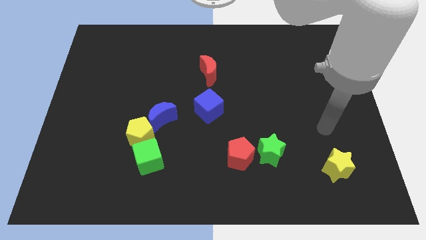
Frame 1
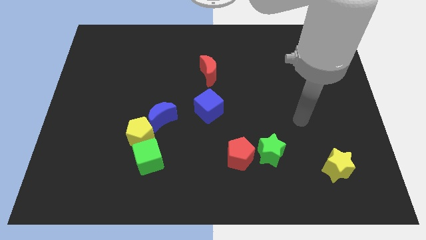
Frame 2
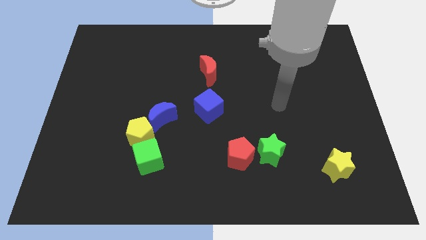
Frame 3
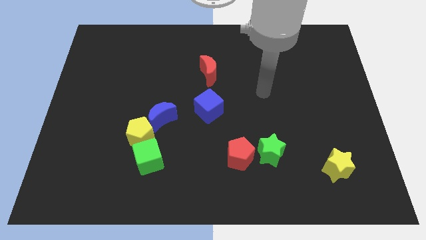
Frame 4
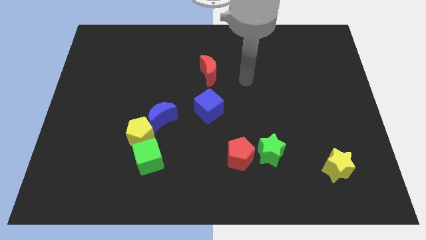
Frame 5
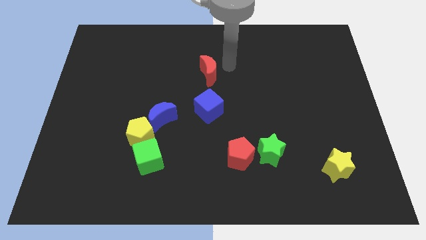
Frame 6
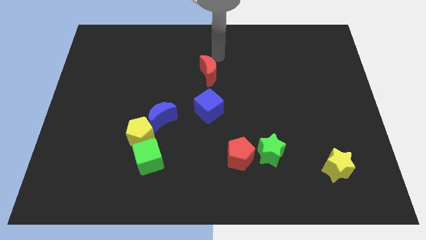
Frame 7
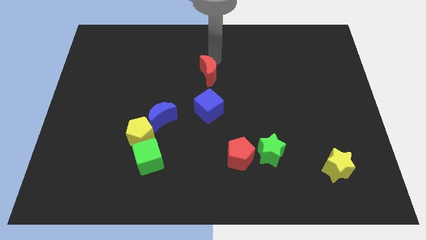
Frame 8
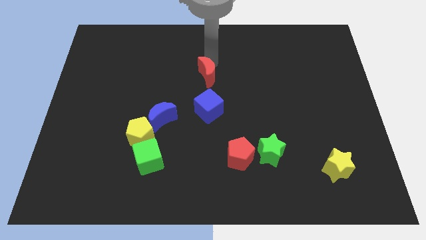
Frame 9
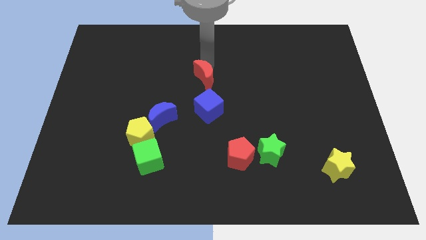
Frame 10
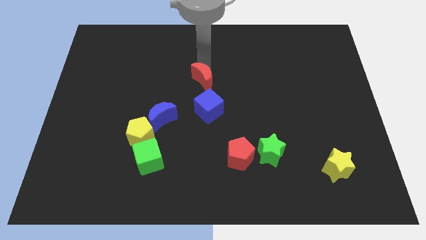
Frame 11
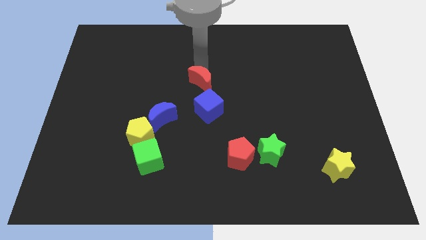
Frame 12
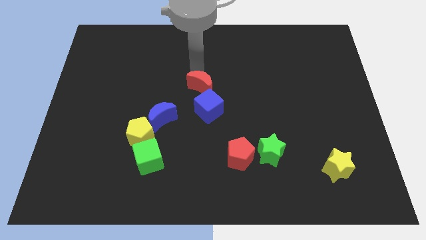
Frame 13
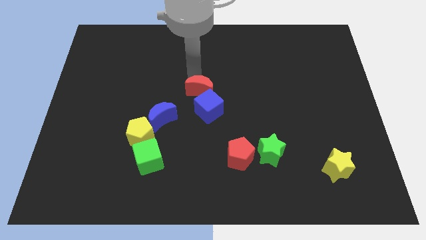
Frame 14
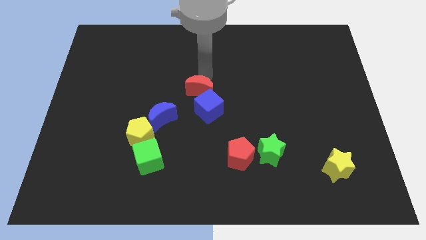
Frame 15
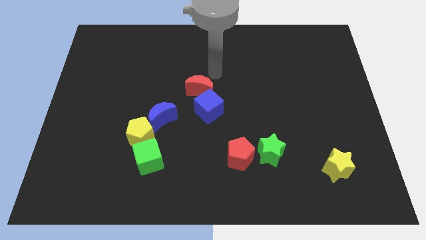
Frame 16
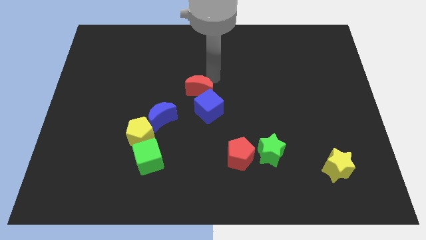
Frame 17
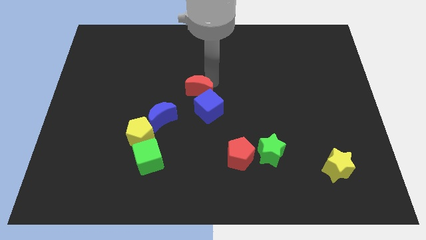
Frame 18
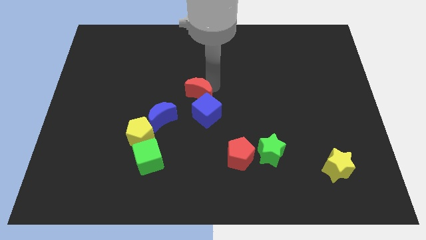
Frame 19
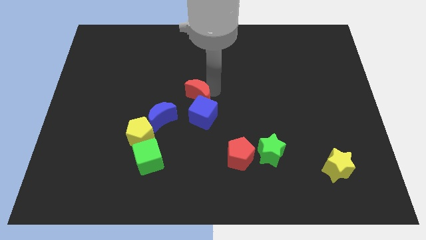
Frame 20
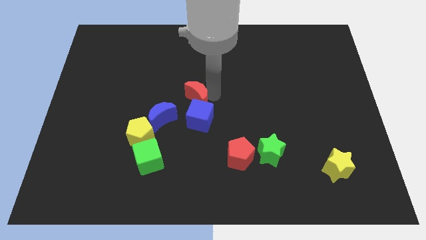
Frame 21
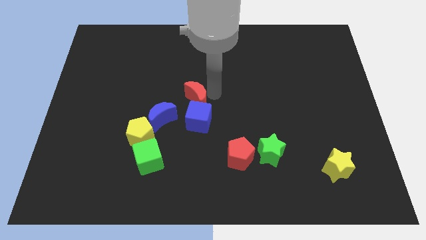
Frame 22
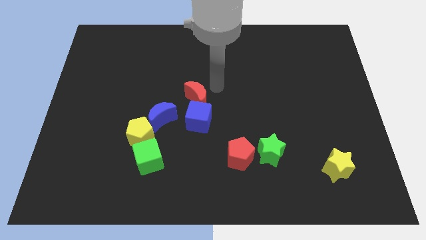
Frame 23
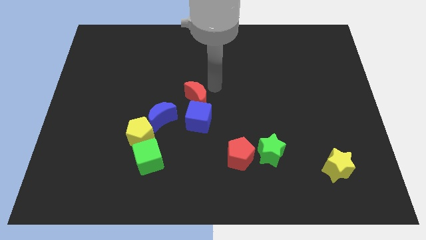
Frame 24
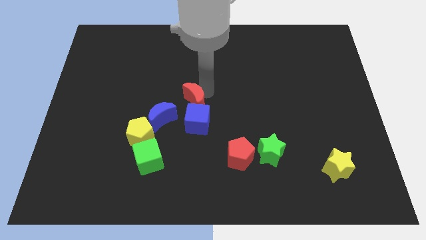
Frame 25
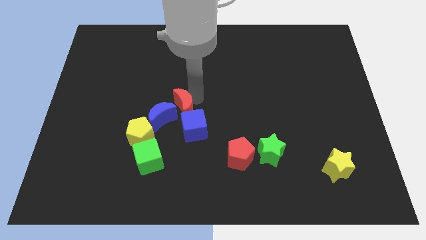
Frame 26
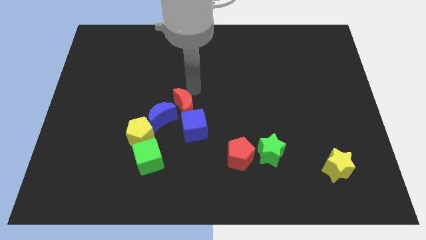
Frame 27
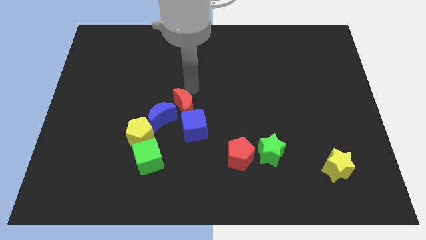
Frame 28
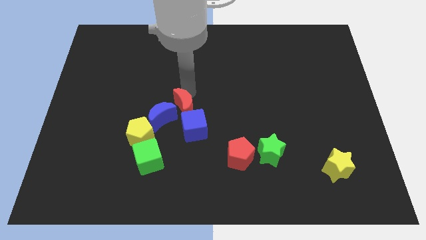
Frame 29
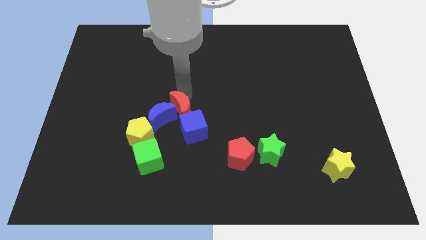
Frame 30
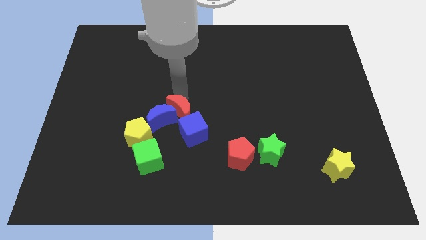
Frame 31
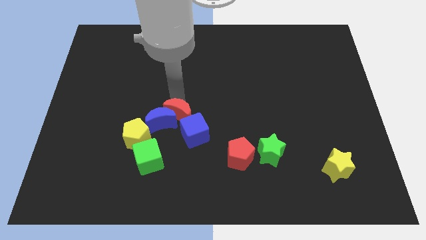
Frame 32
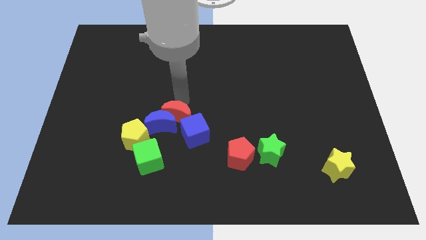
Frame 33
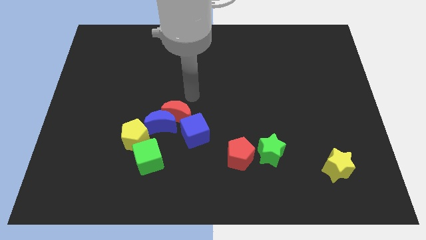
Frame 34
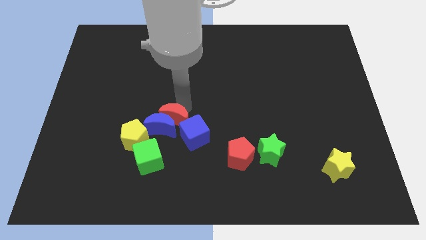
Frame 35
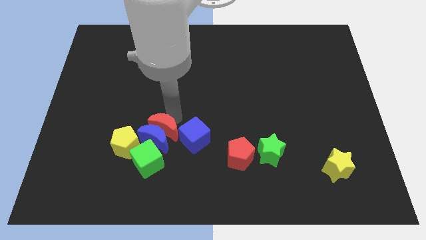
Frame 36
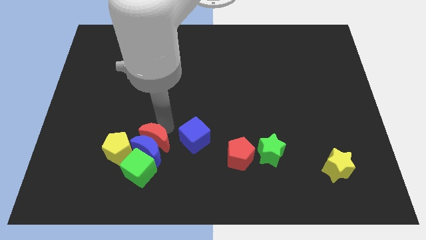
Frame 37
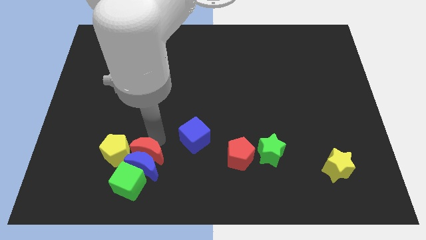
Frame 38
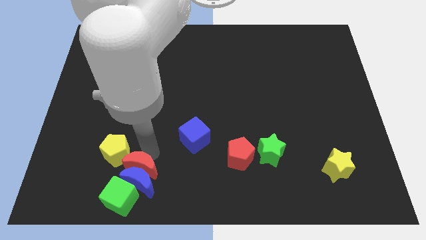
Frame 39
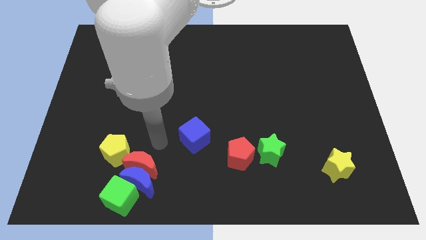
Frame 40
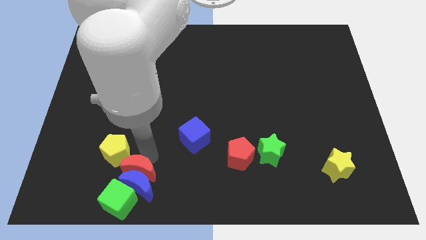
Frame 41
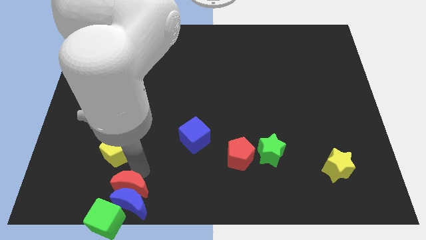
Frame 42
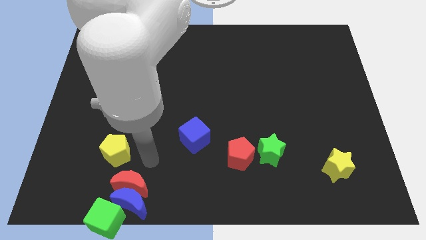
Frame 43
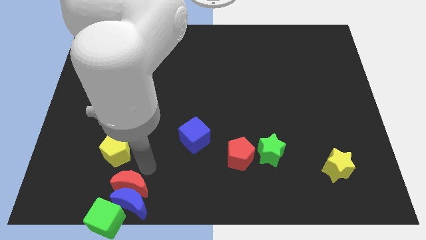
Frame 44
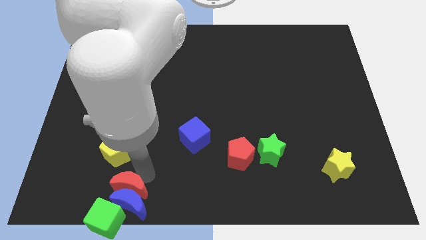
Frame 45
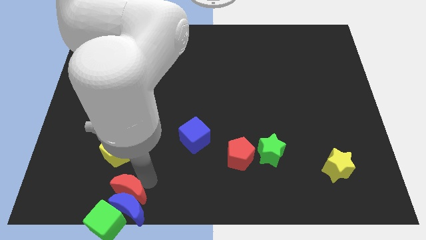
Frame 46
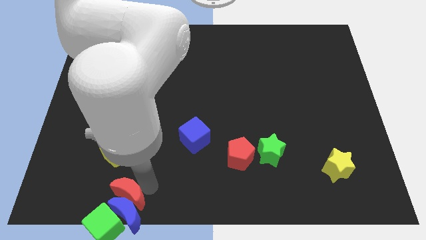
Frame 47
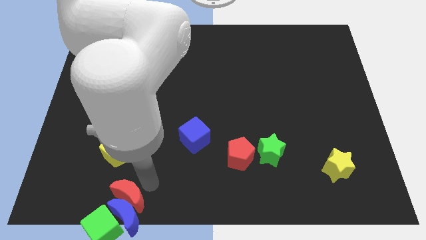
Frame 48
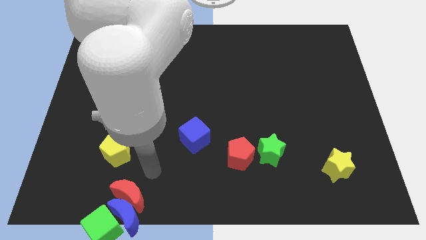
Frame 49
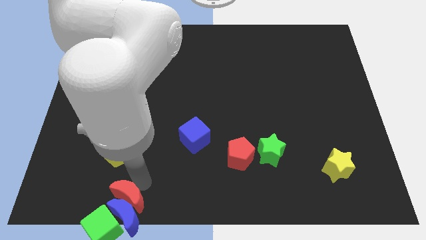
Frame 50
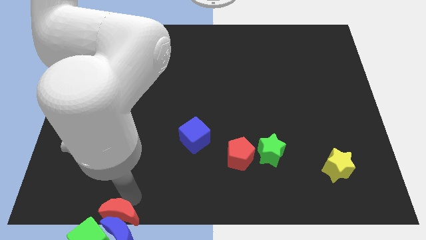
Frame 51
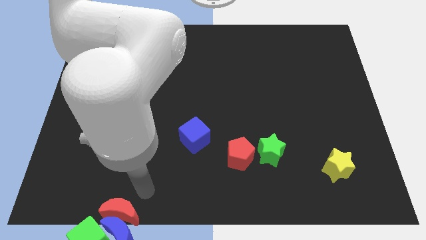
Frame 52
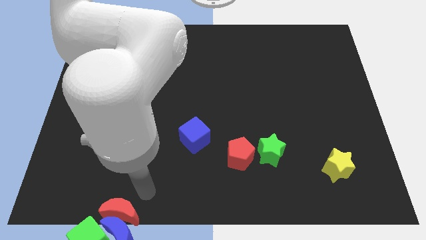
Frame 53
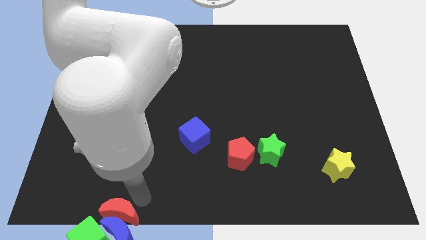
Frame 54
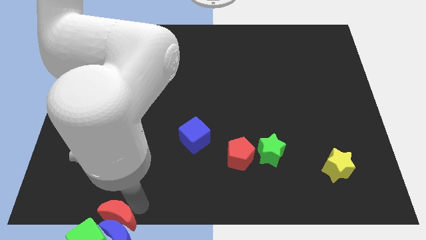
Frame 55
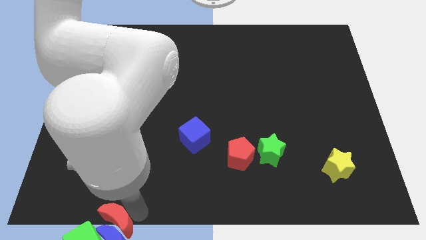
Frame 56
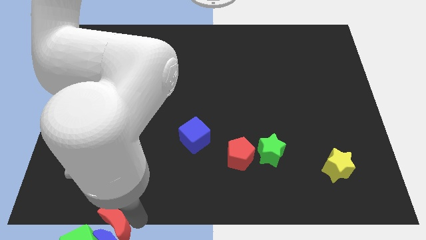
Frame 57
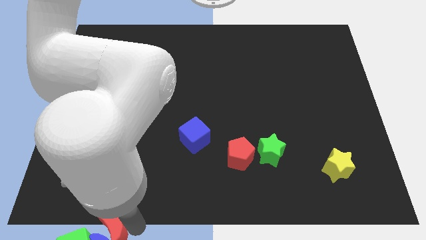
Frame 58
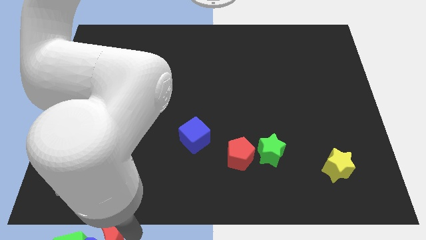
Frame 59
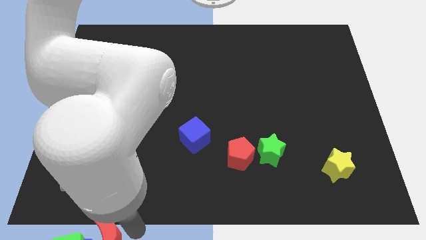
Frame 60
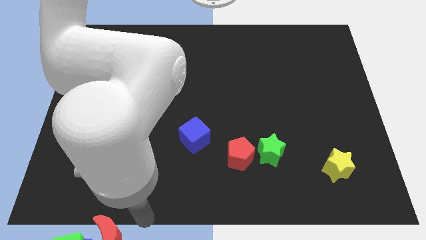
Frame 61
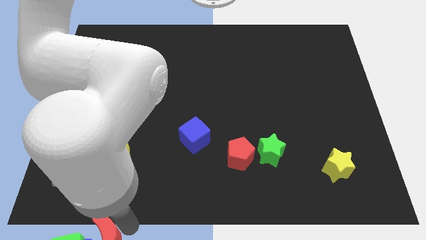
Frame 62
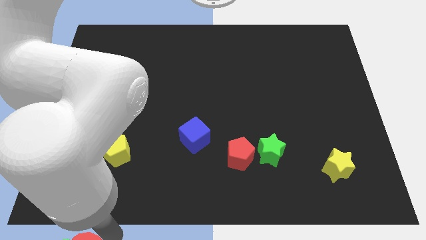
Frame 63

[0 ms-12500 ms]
push the red moon to the green cube

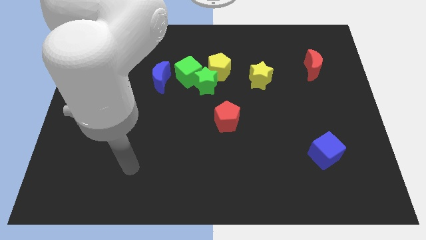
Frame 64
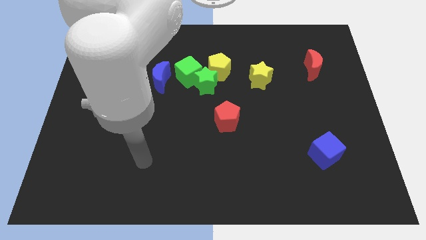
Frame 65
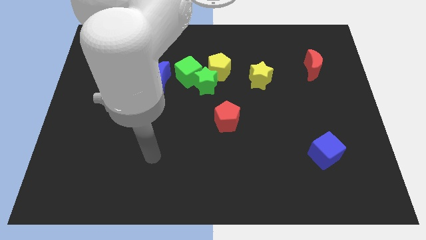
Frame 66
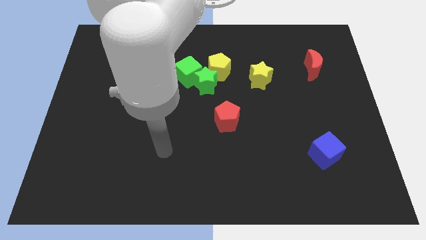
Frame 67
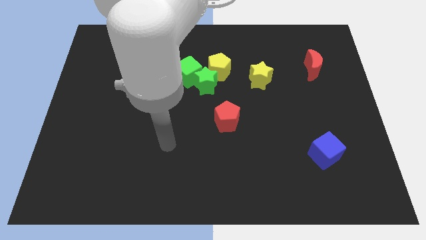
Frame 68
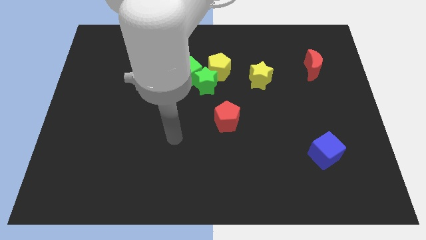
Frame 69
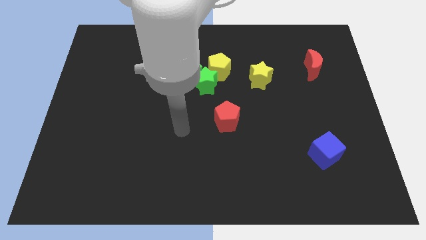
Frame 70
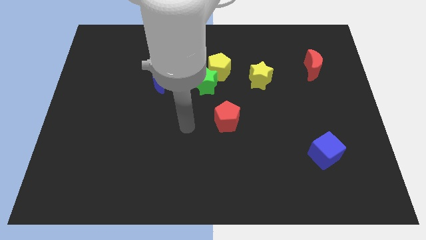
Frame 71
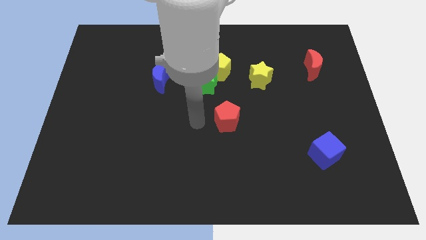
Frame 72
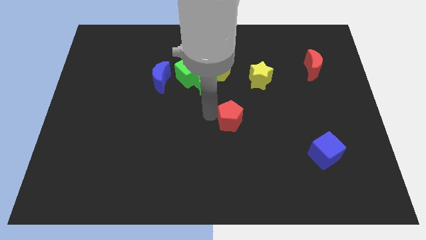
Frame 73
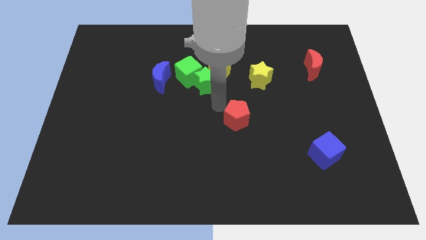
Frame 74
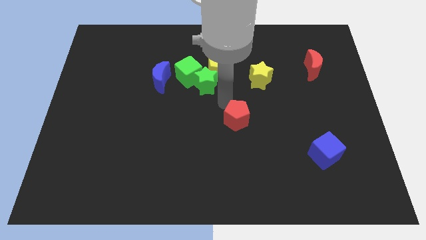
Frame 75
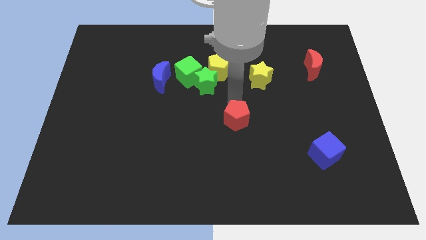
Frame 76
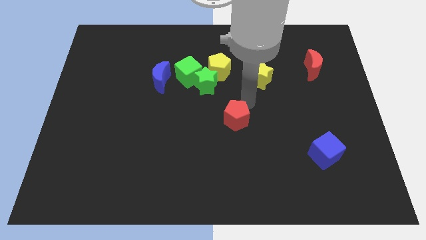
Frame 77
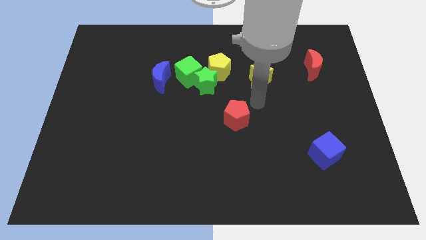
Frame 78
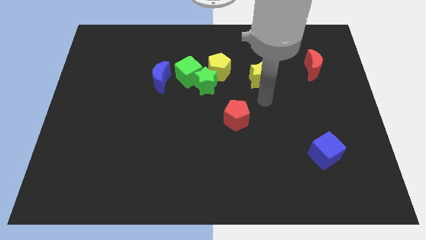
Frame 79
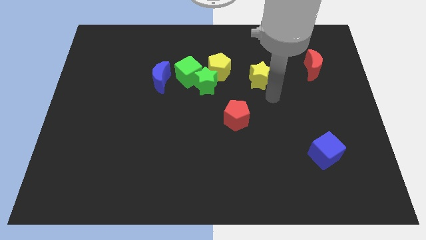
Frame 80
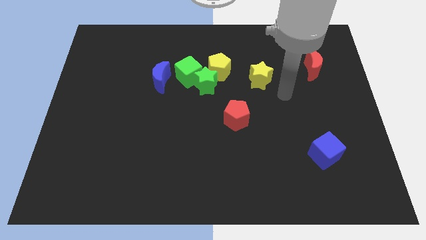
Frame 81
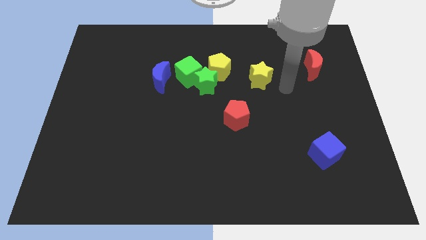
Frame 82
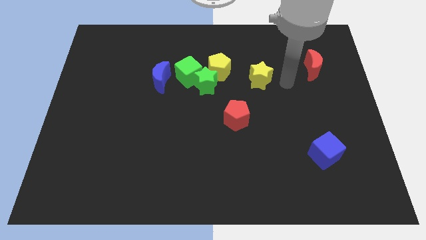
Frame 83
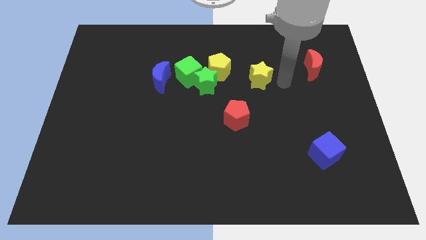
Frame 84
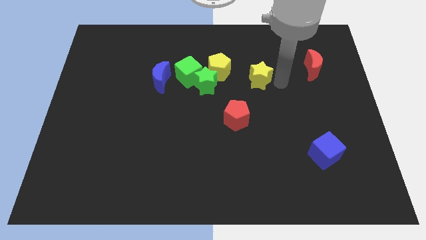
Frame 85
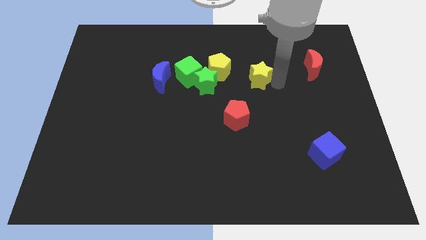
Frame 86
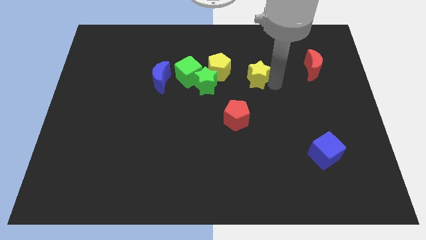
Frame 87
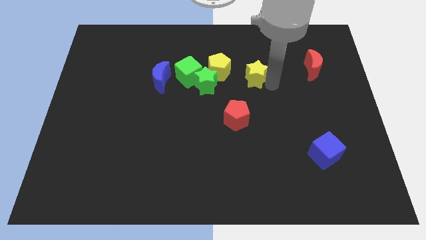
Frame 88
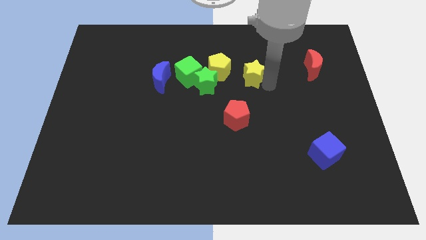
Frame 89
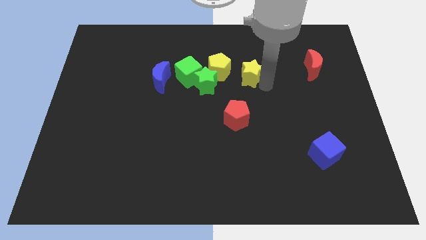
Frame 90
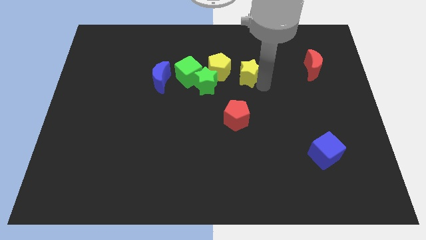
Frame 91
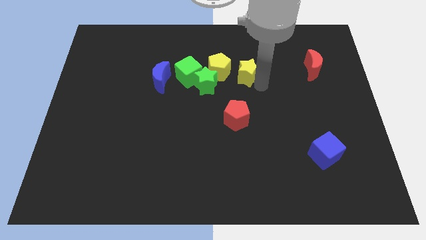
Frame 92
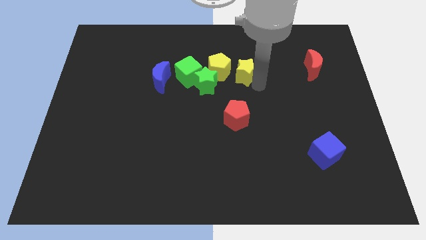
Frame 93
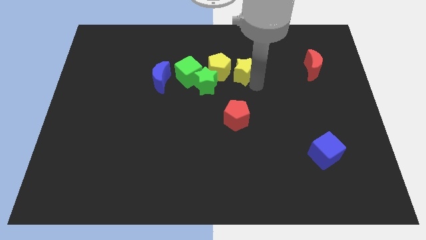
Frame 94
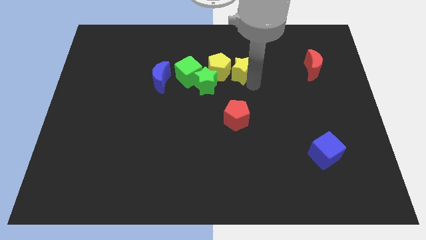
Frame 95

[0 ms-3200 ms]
push the yellow star to the yellow pentagon
